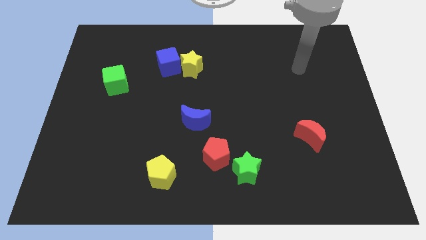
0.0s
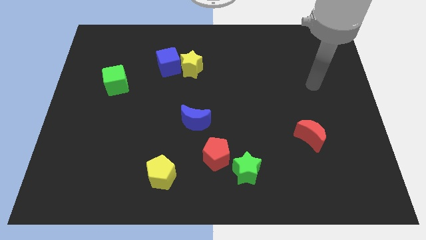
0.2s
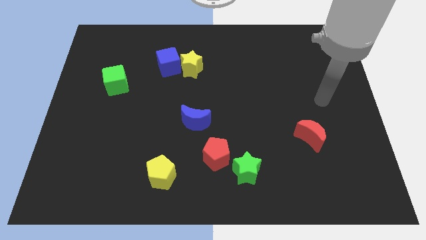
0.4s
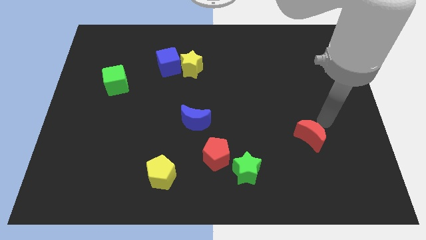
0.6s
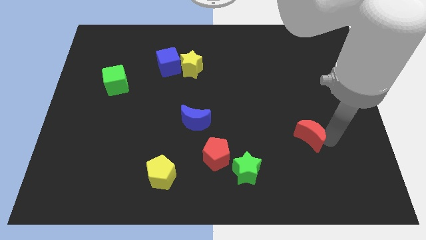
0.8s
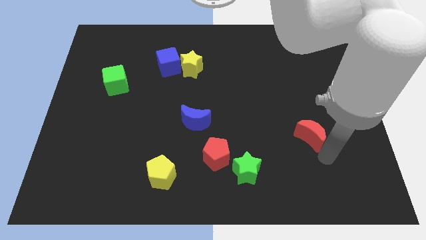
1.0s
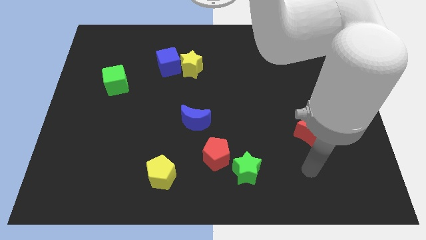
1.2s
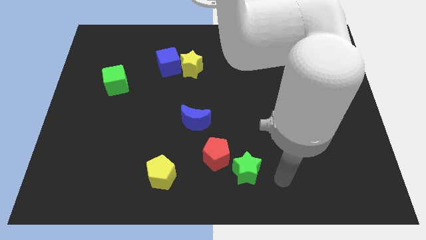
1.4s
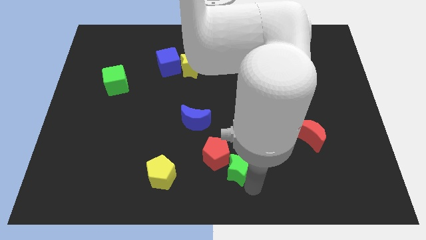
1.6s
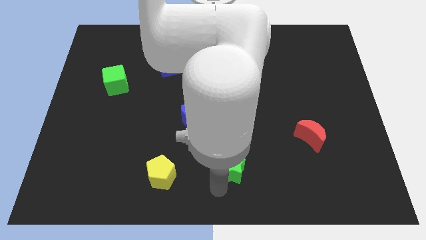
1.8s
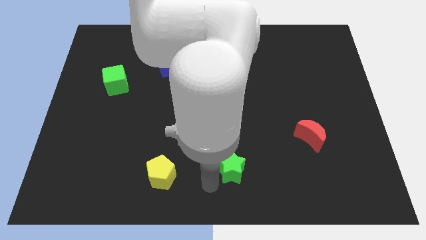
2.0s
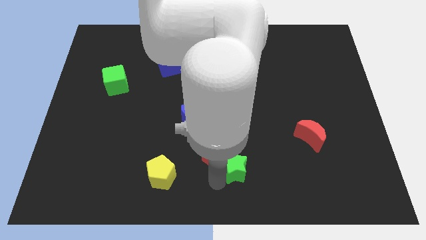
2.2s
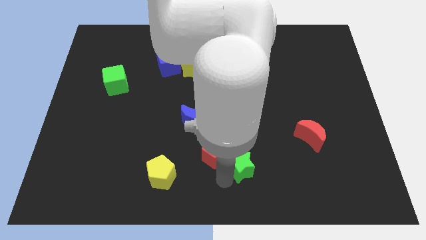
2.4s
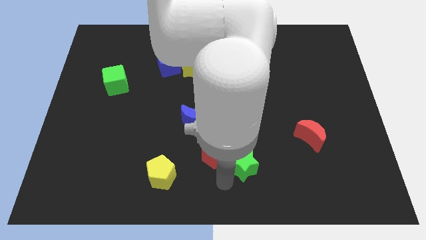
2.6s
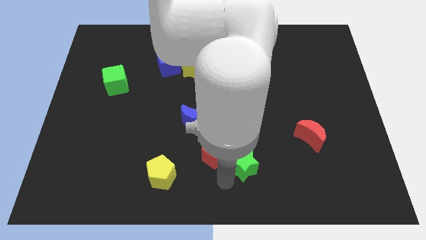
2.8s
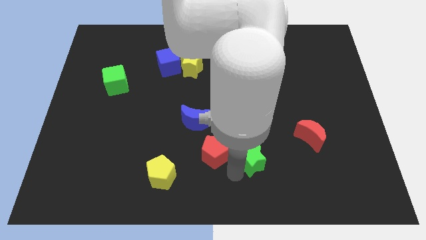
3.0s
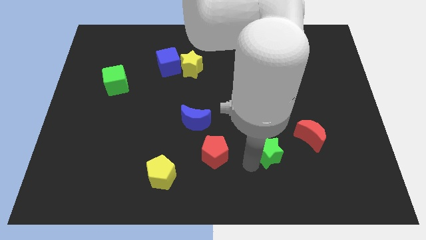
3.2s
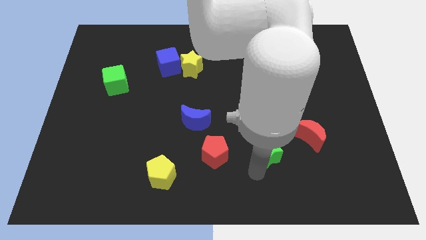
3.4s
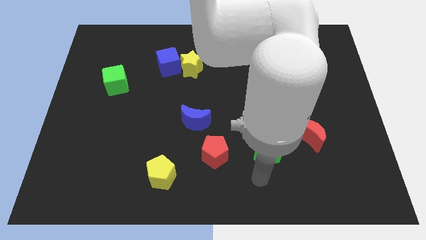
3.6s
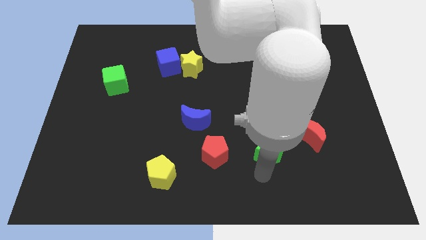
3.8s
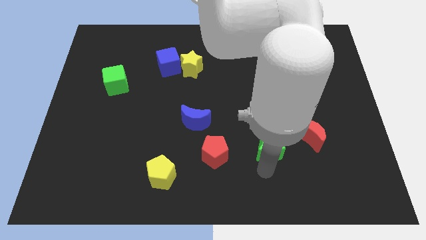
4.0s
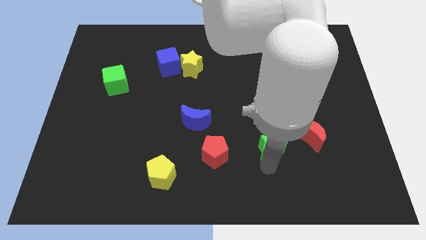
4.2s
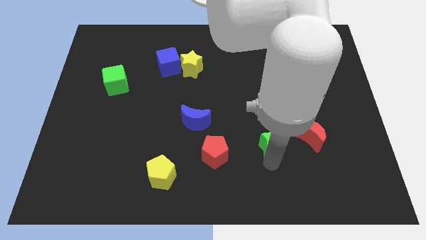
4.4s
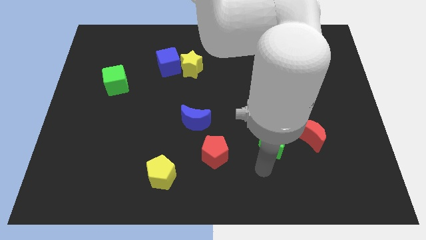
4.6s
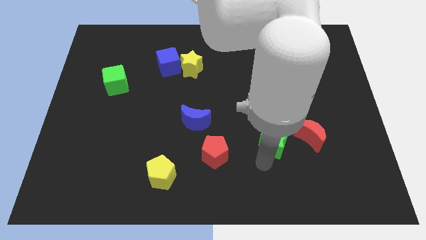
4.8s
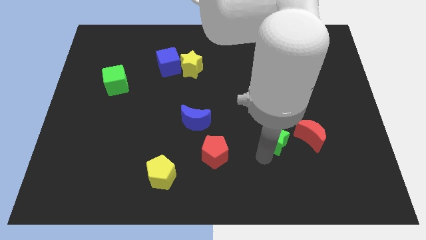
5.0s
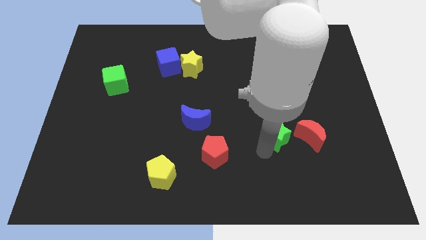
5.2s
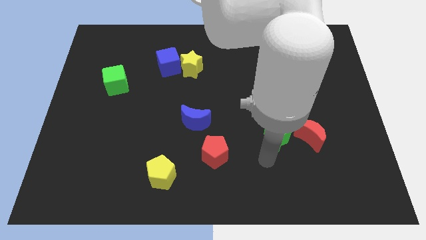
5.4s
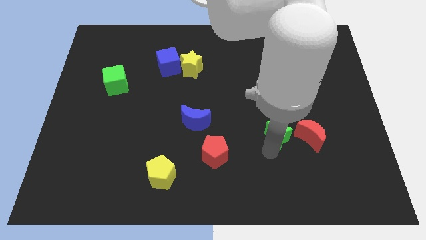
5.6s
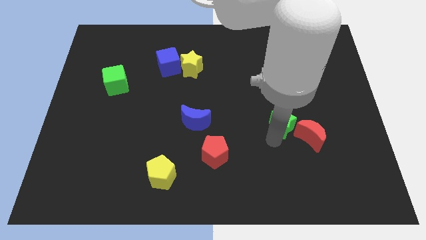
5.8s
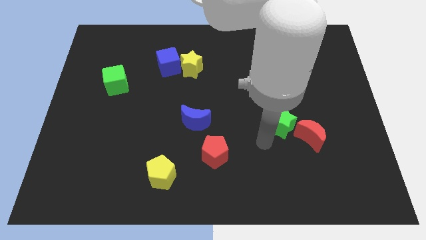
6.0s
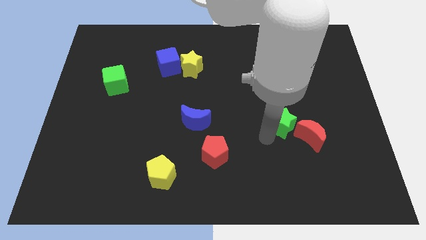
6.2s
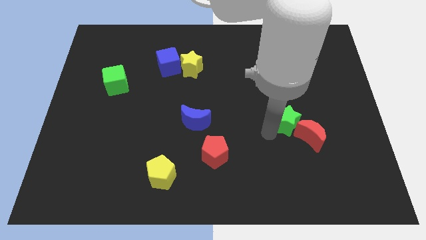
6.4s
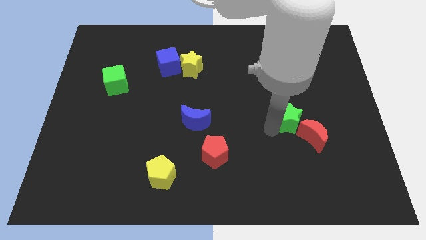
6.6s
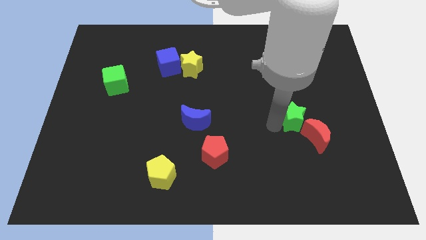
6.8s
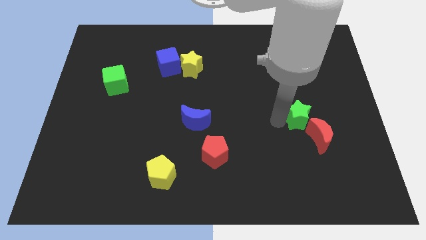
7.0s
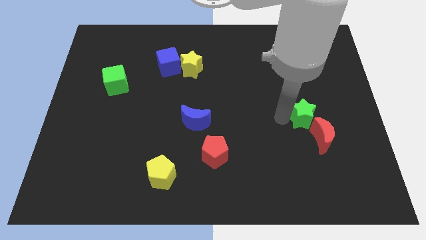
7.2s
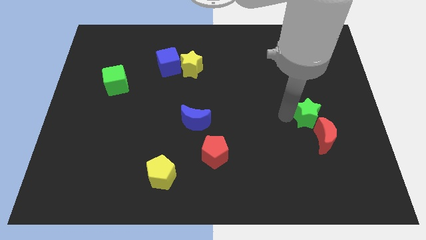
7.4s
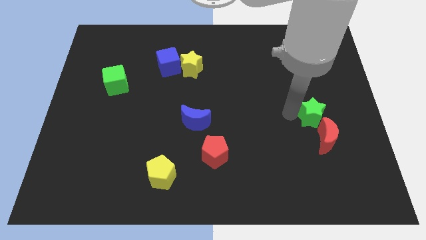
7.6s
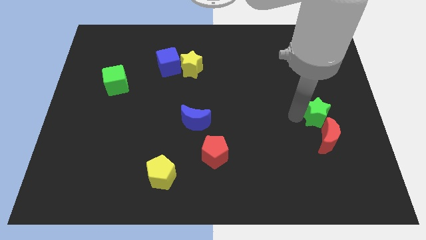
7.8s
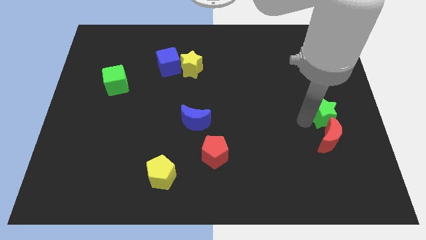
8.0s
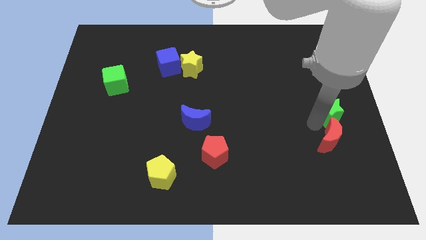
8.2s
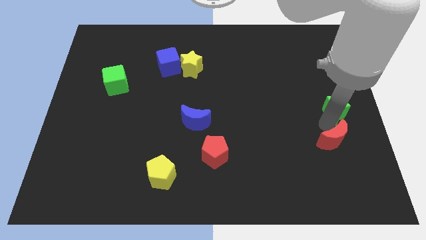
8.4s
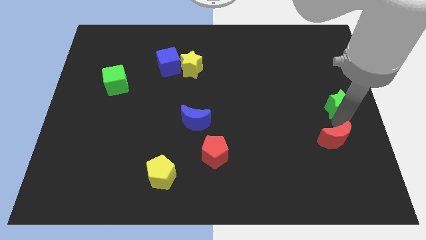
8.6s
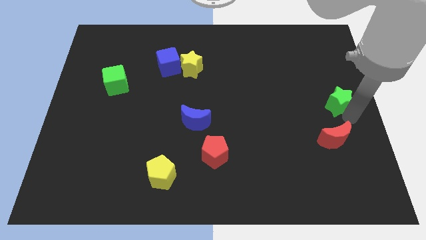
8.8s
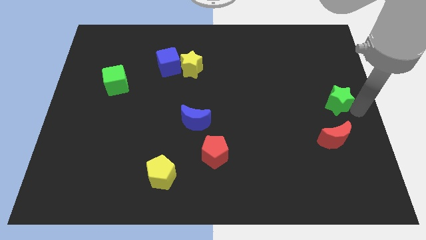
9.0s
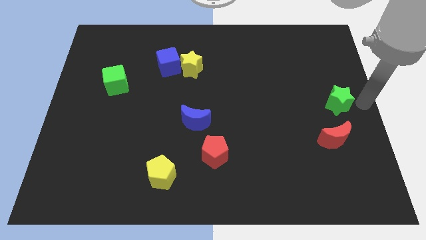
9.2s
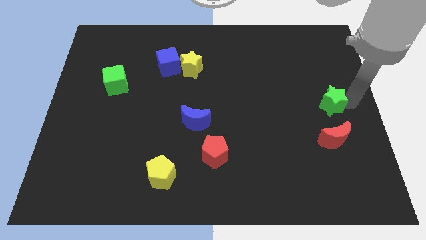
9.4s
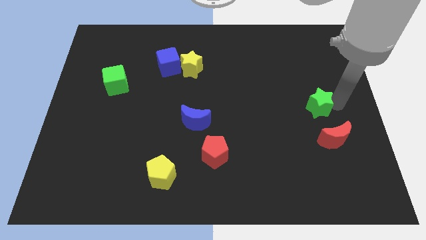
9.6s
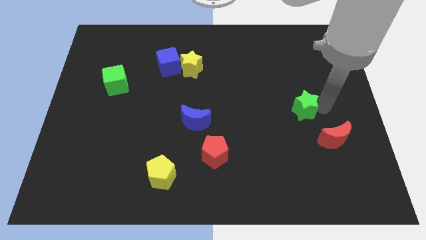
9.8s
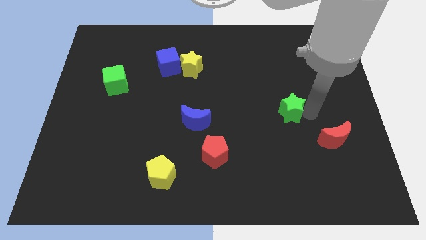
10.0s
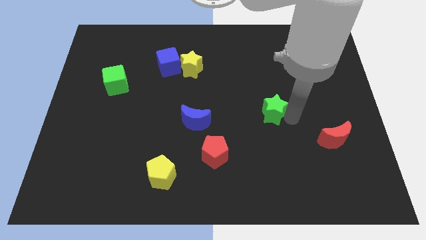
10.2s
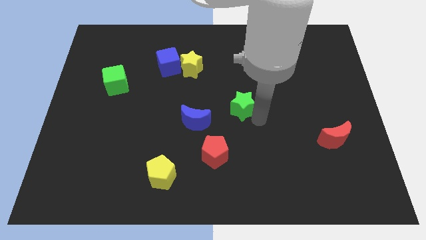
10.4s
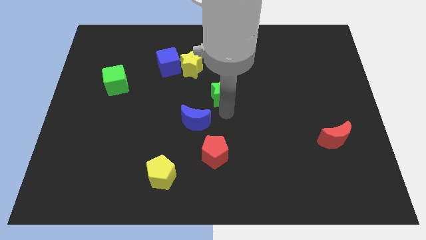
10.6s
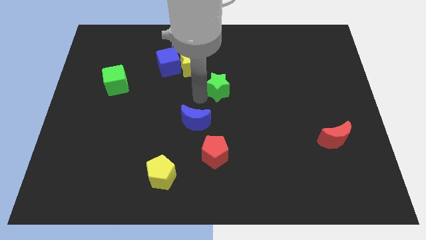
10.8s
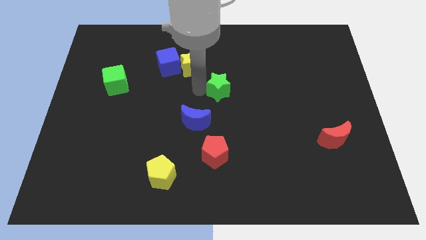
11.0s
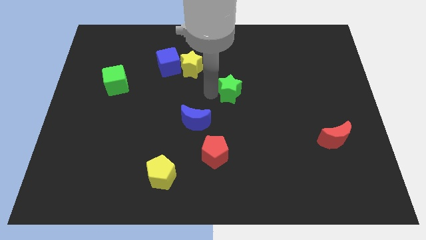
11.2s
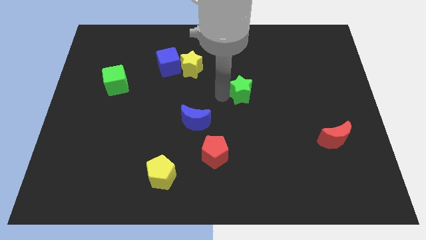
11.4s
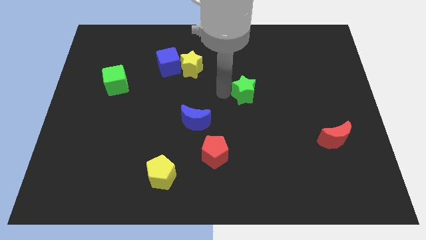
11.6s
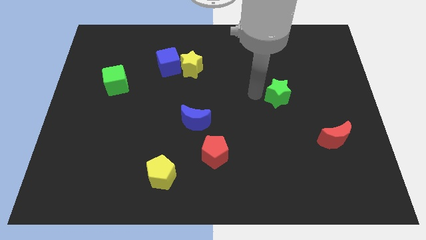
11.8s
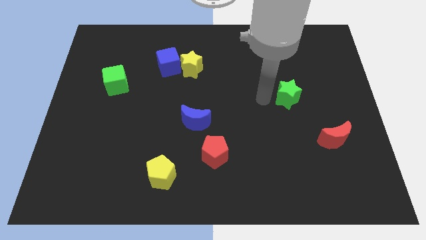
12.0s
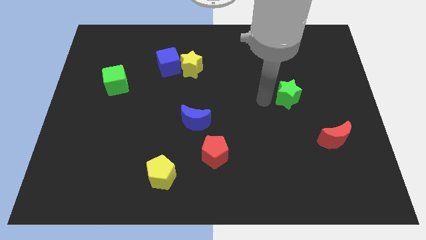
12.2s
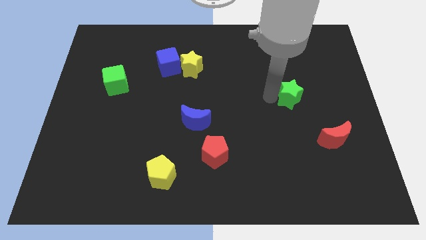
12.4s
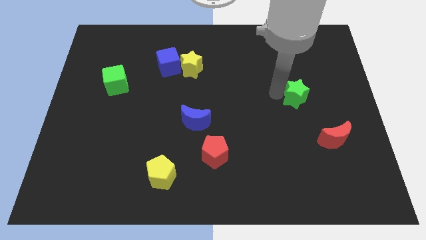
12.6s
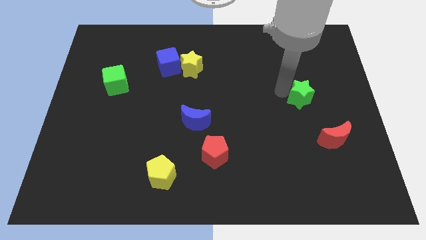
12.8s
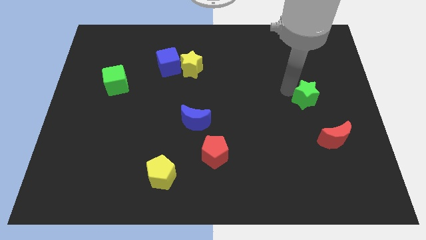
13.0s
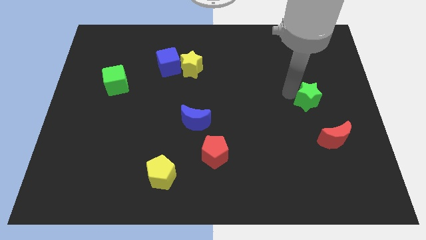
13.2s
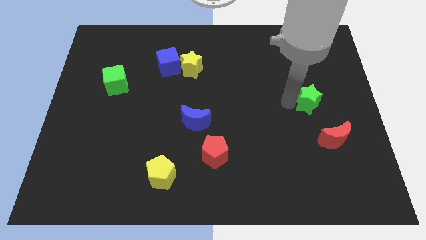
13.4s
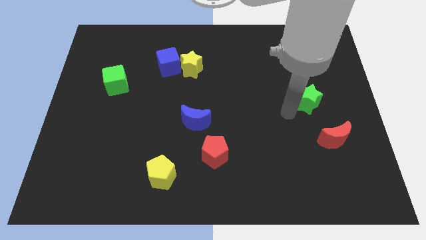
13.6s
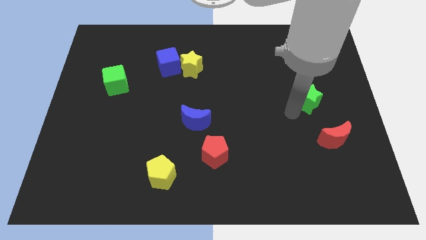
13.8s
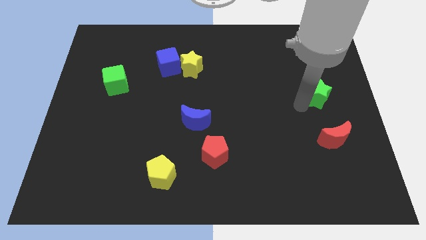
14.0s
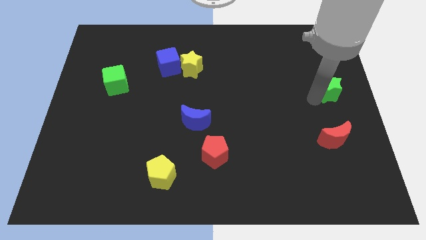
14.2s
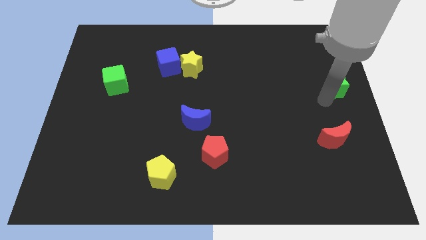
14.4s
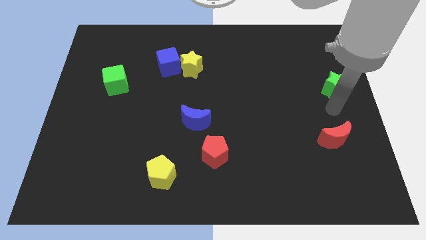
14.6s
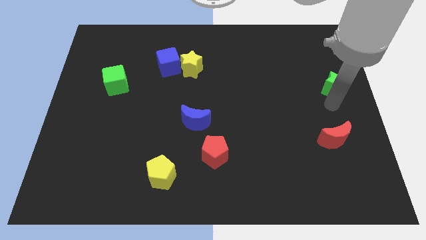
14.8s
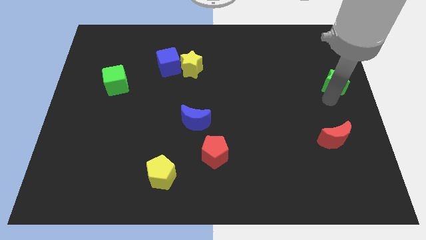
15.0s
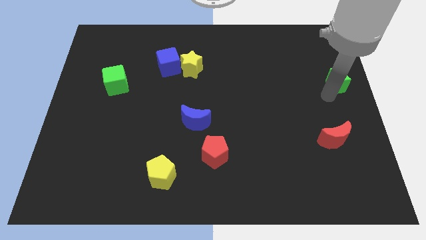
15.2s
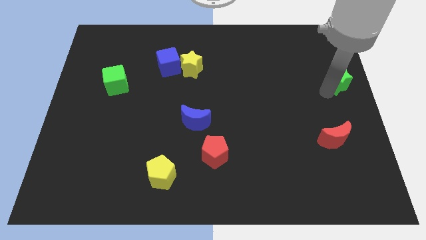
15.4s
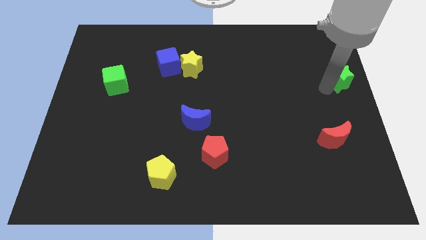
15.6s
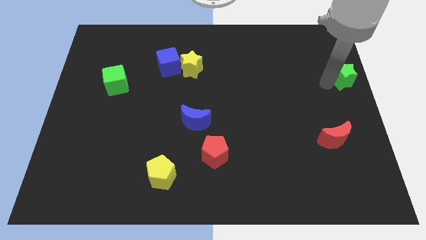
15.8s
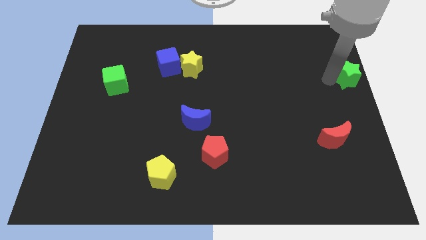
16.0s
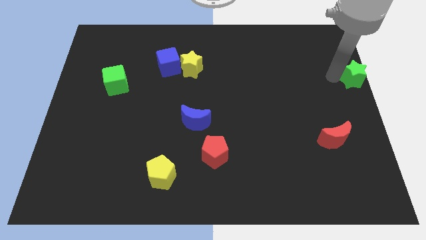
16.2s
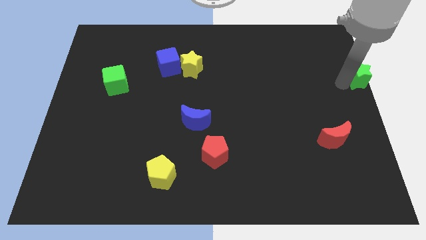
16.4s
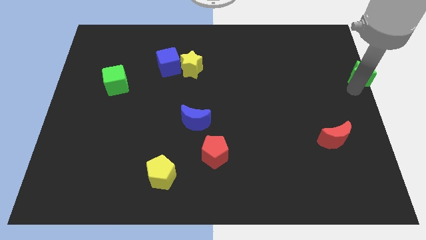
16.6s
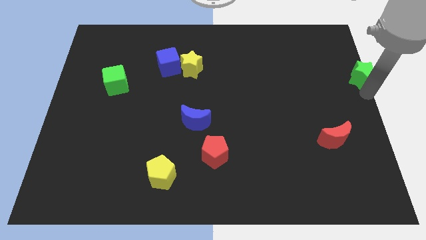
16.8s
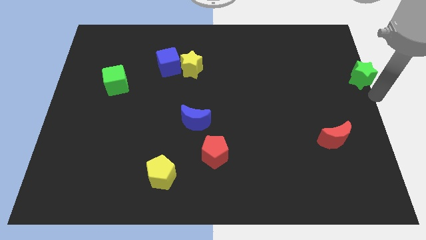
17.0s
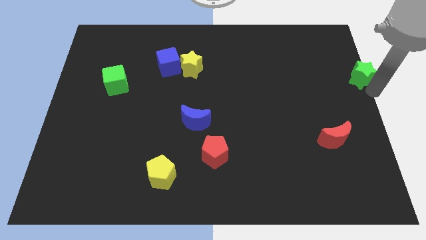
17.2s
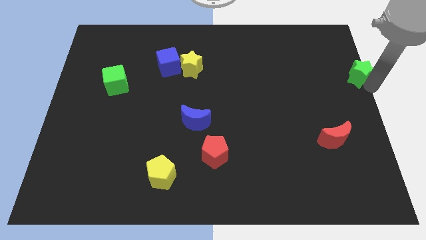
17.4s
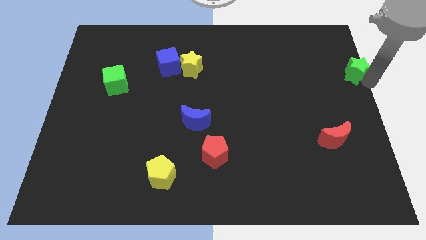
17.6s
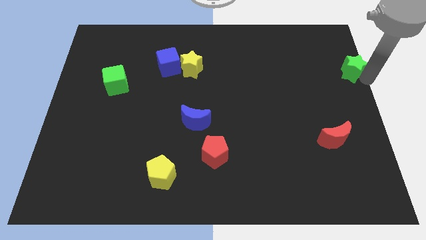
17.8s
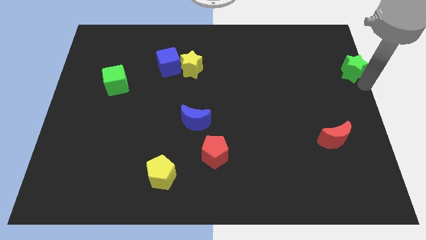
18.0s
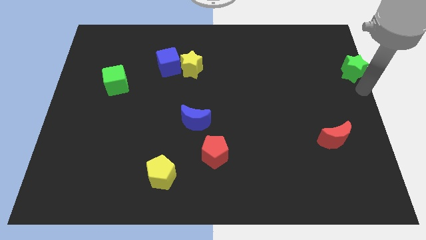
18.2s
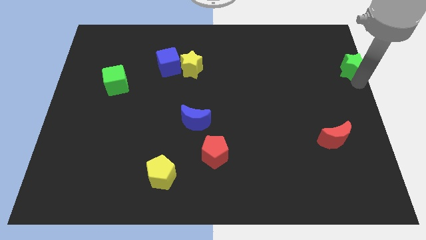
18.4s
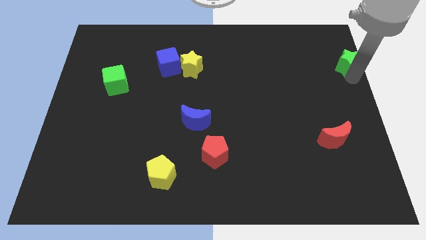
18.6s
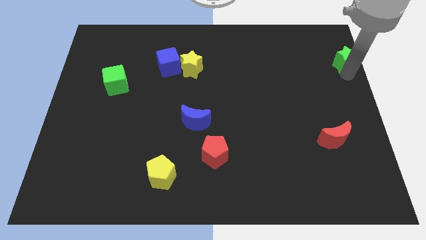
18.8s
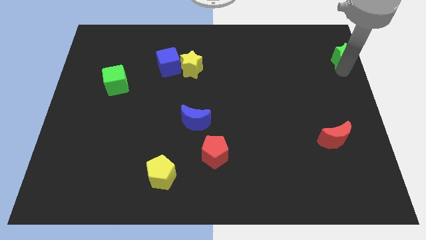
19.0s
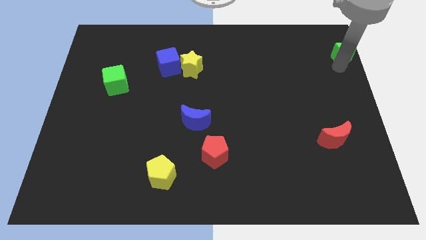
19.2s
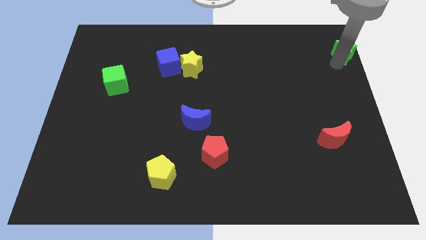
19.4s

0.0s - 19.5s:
put the green star to the upper right corner
